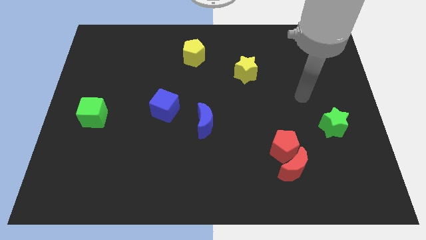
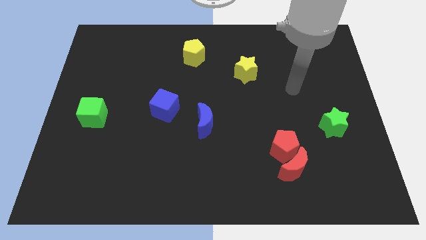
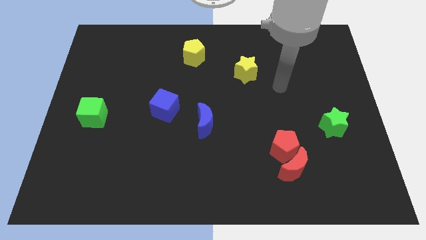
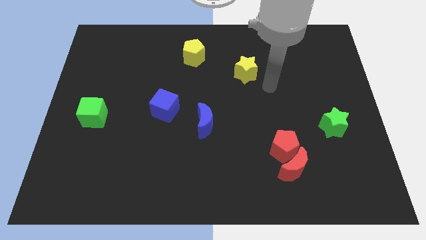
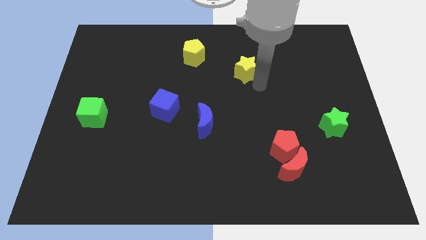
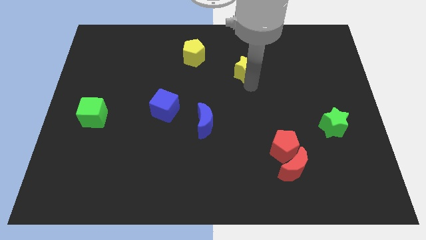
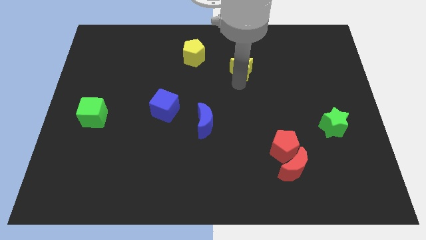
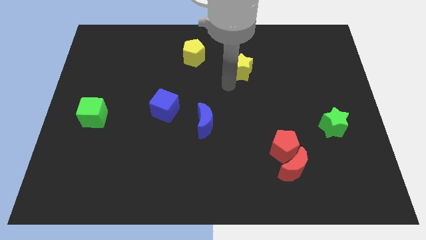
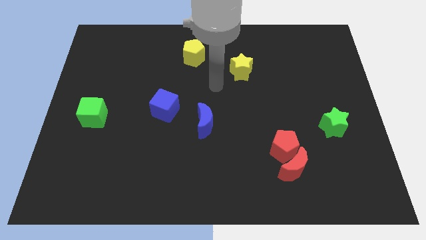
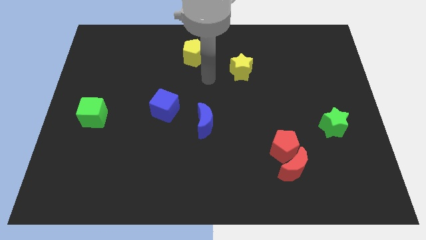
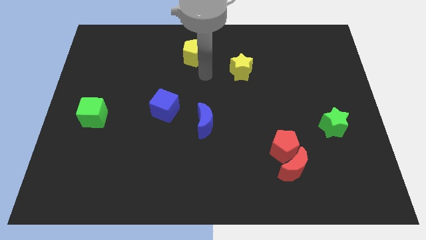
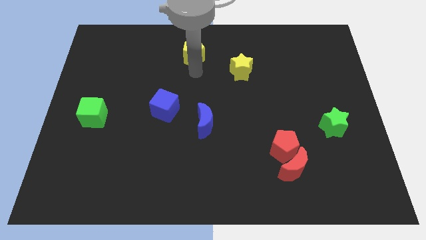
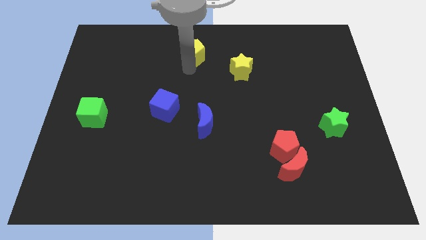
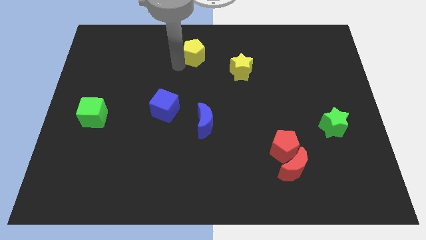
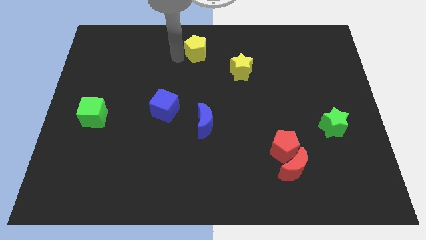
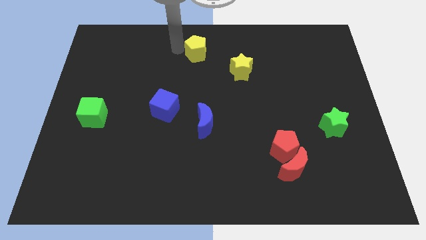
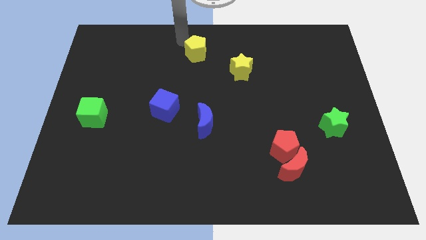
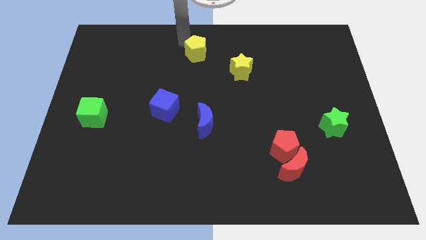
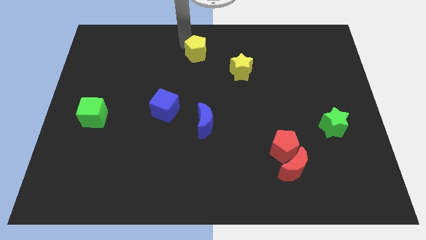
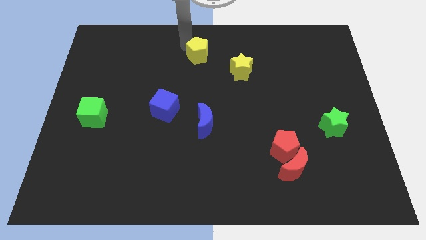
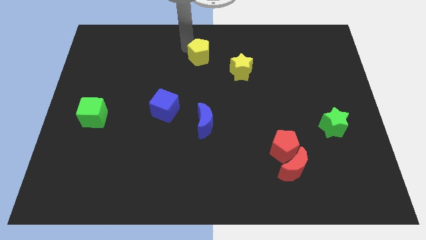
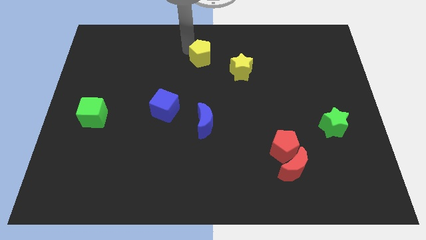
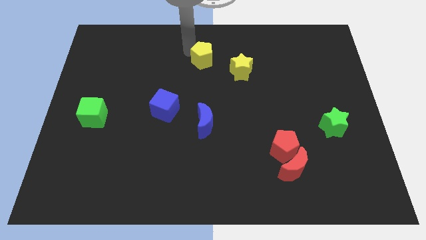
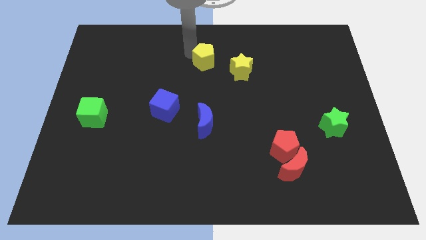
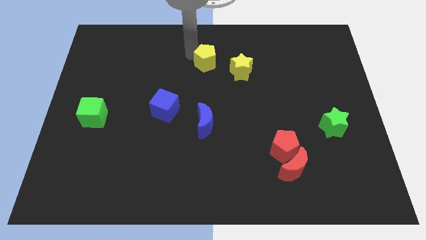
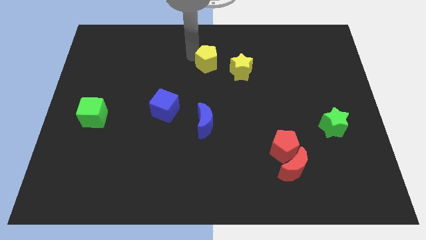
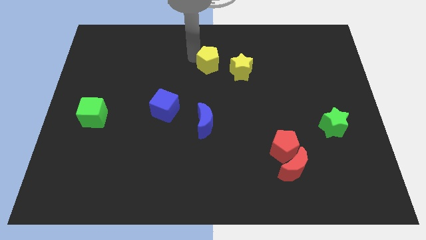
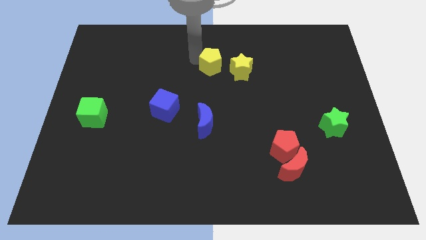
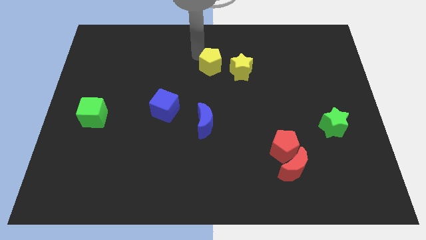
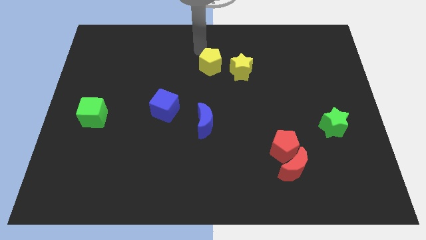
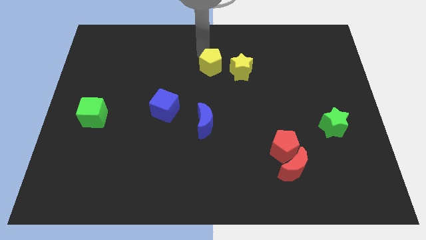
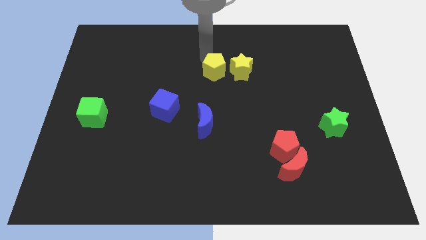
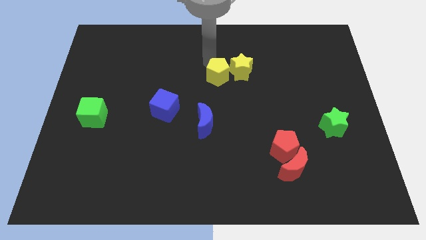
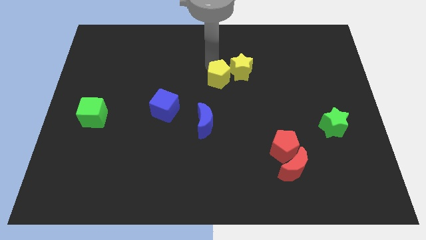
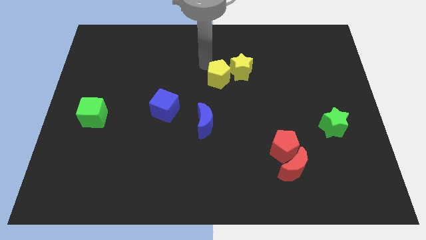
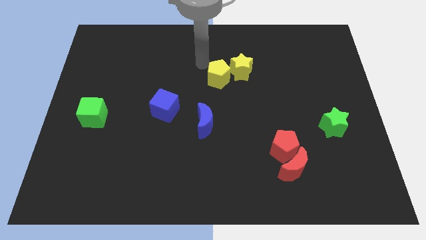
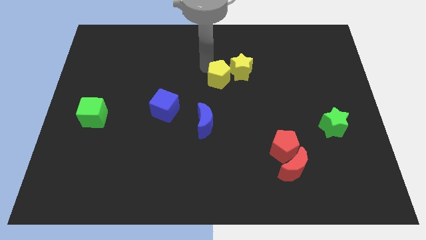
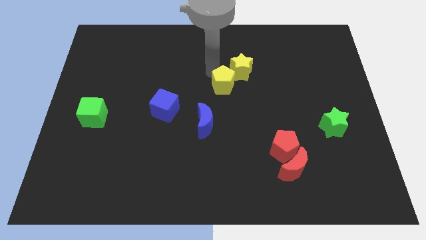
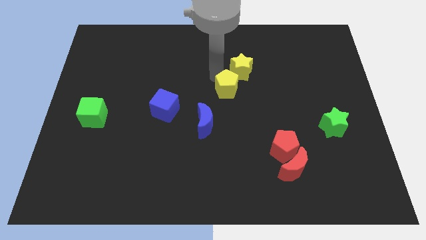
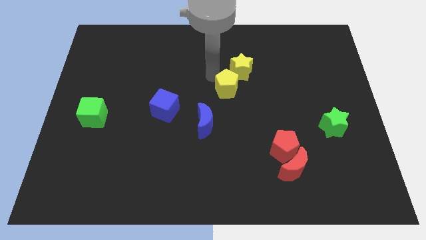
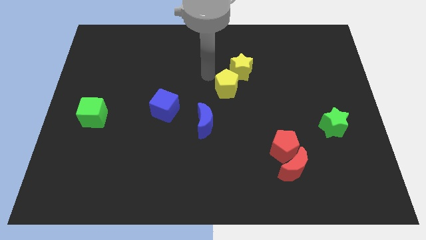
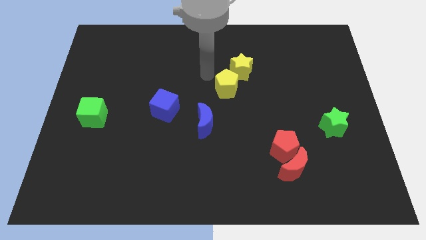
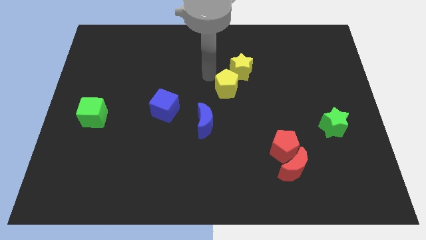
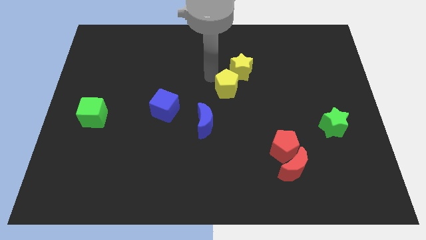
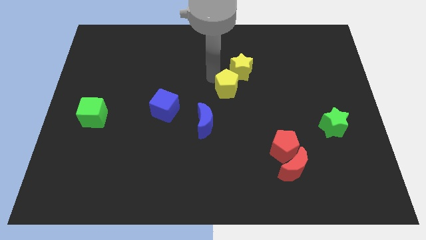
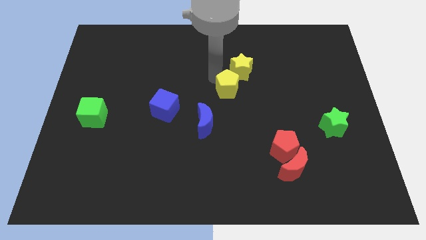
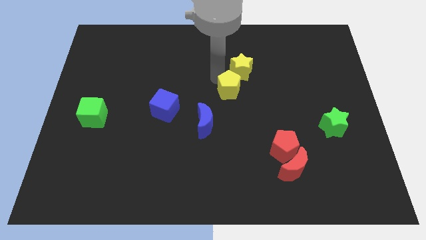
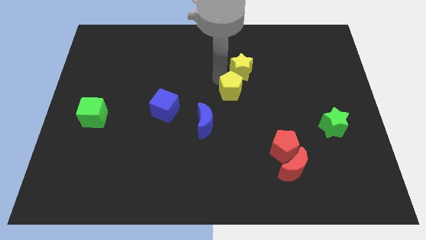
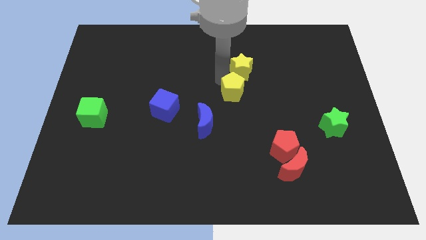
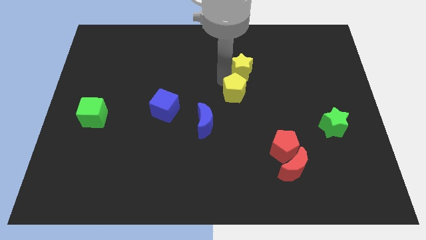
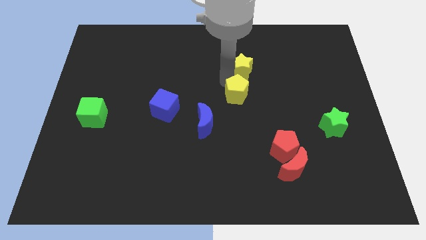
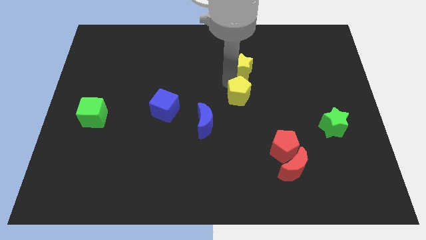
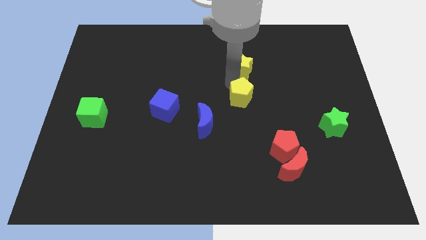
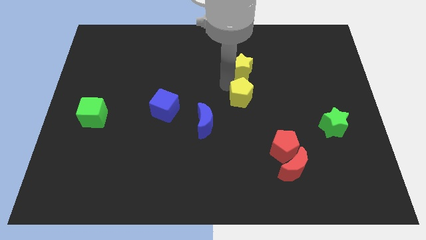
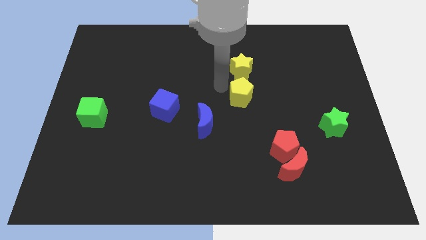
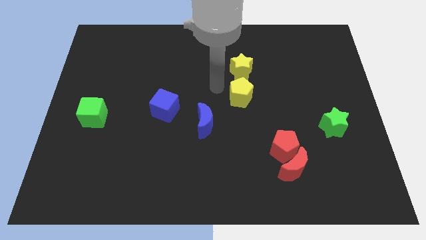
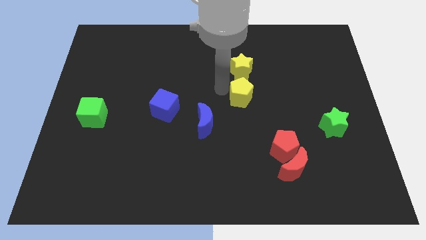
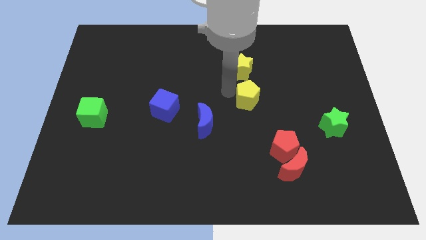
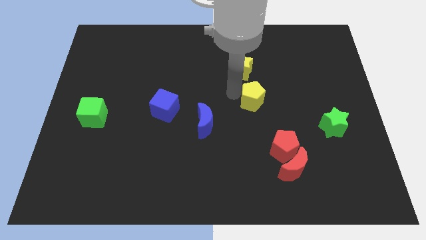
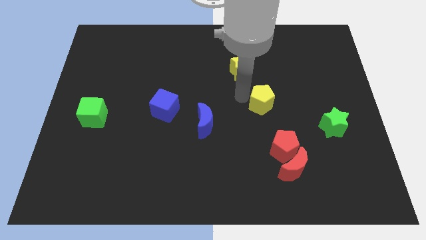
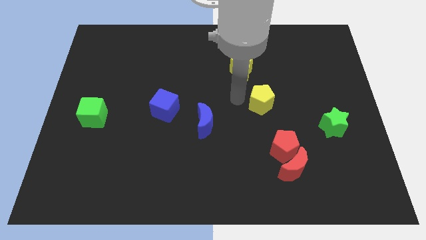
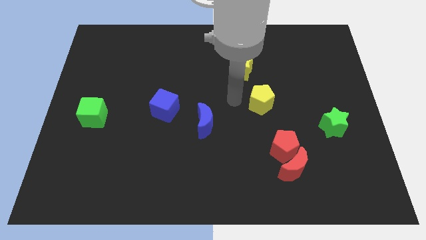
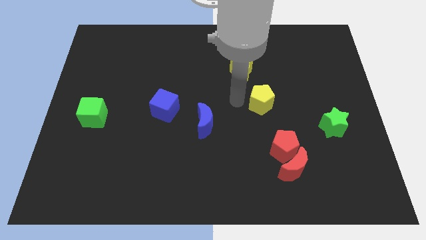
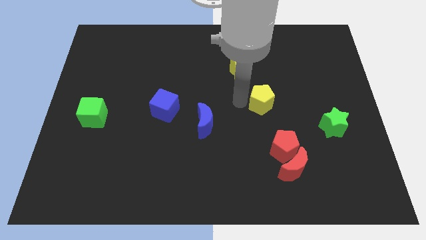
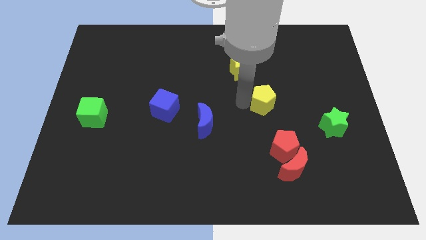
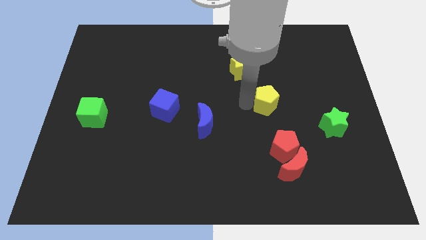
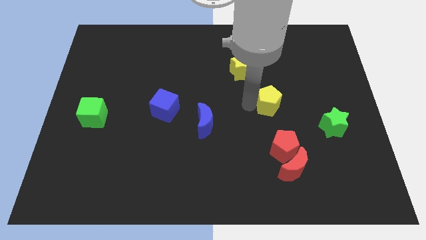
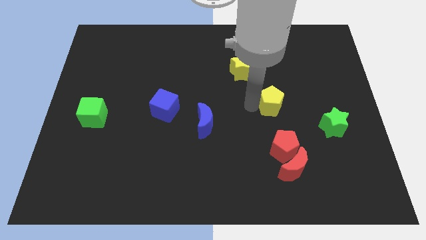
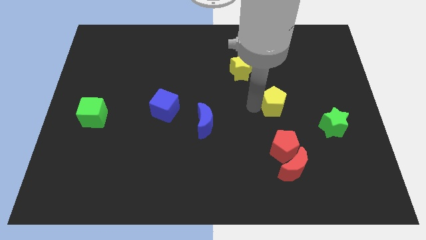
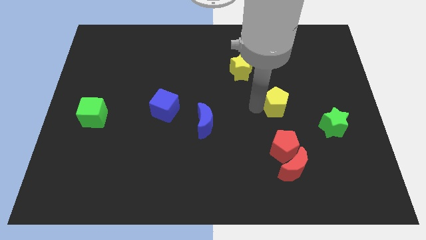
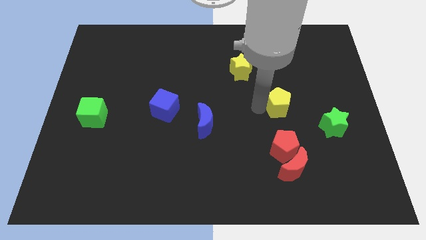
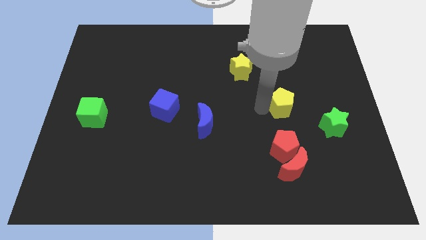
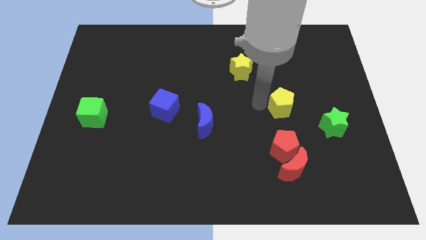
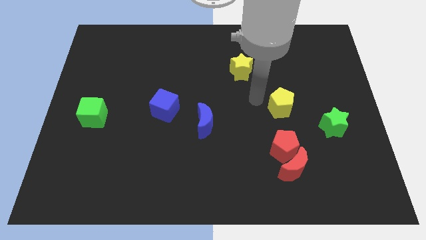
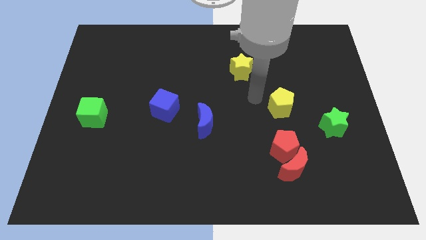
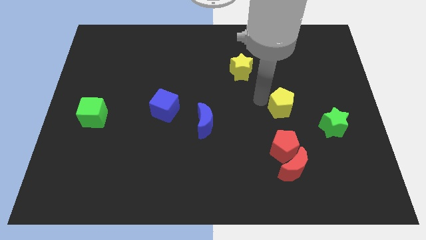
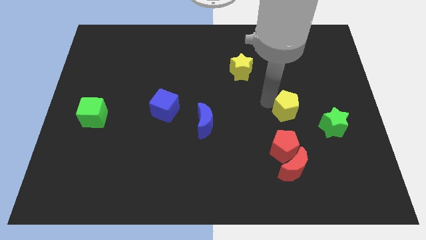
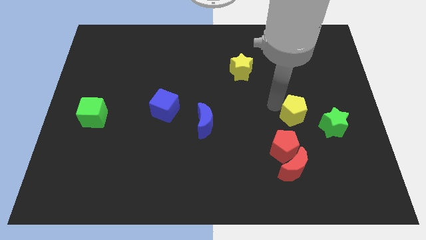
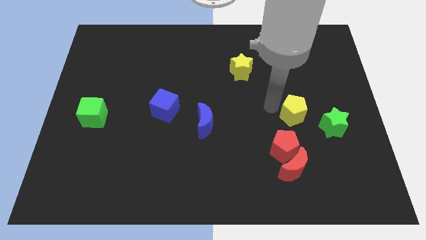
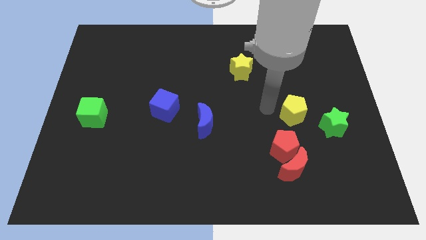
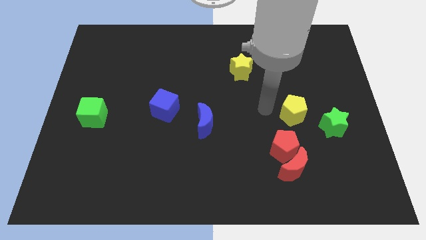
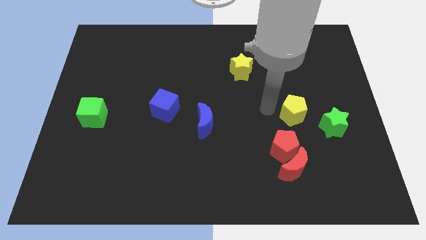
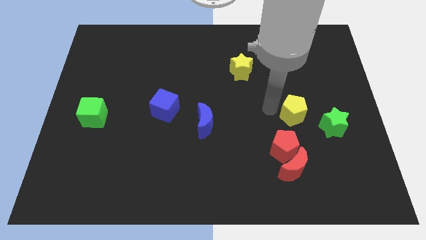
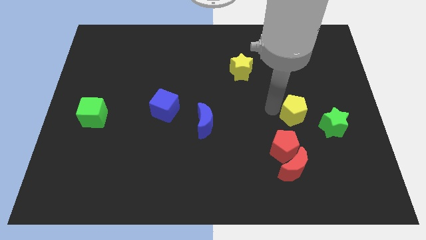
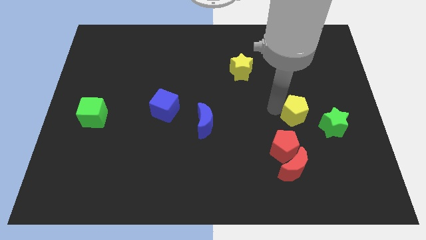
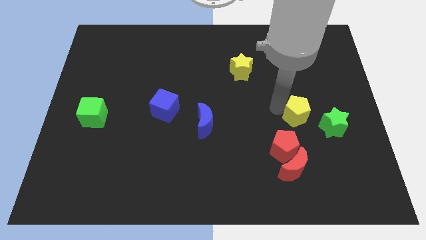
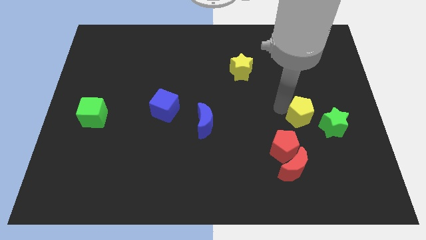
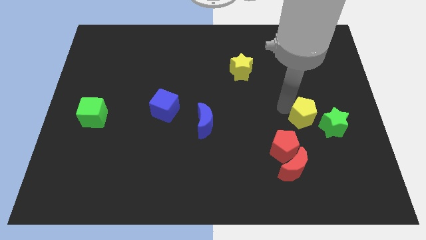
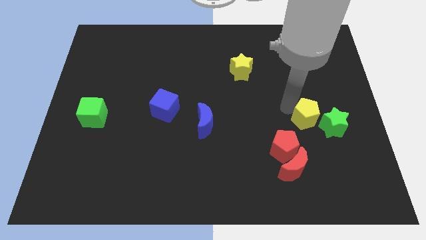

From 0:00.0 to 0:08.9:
put the yellow pentagon close to the green star
